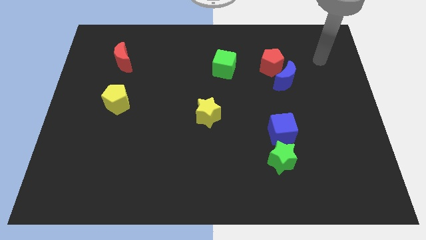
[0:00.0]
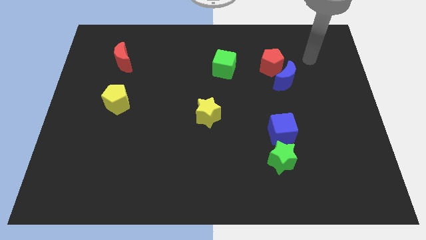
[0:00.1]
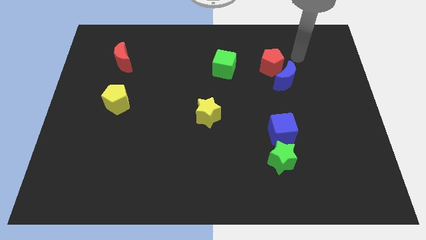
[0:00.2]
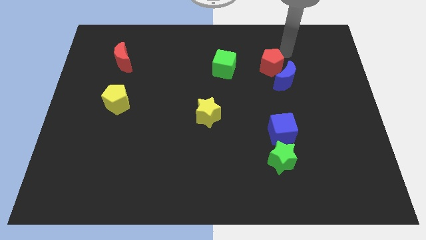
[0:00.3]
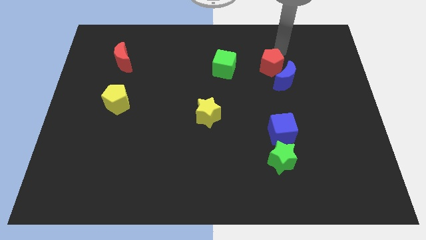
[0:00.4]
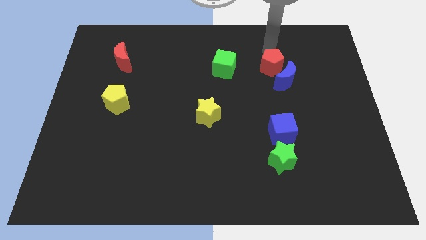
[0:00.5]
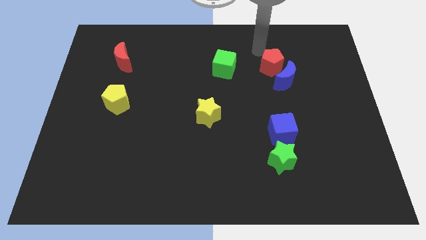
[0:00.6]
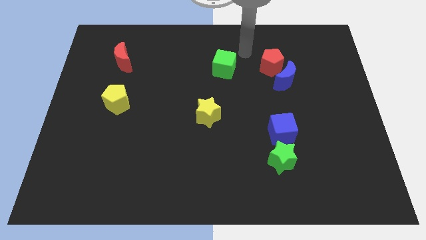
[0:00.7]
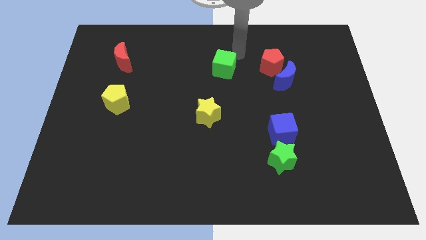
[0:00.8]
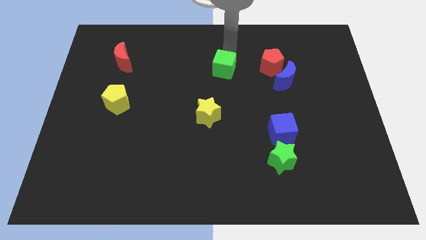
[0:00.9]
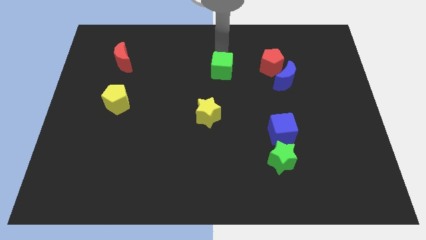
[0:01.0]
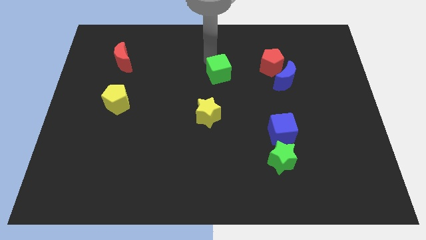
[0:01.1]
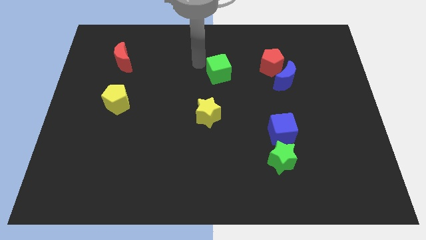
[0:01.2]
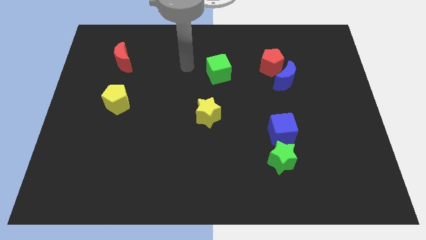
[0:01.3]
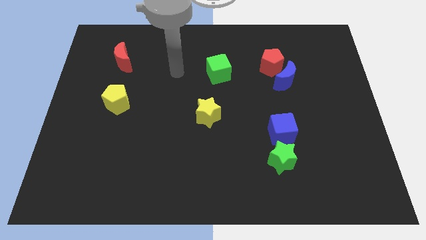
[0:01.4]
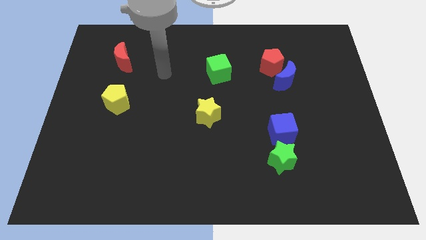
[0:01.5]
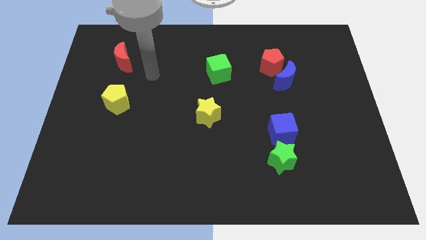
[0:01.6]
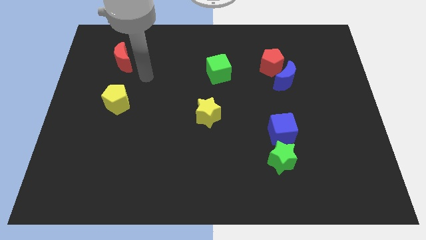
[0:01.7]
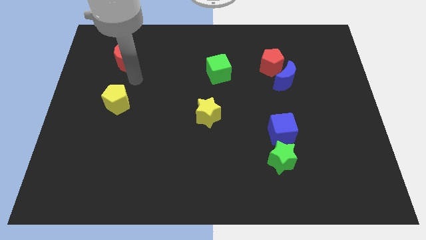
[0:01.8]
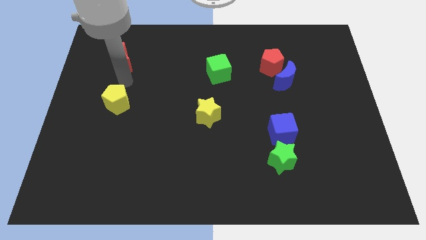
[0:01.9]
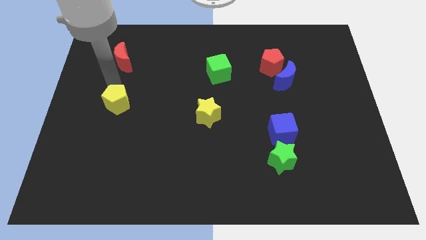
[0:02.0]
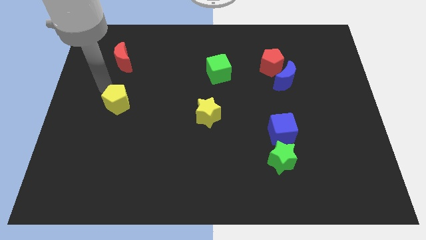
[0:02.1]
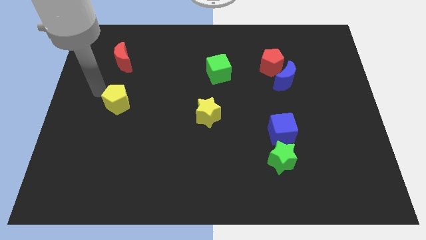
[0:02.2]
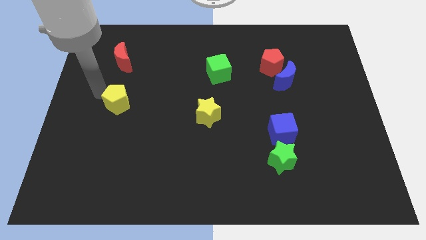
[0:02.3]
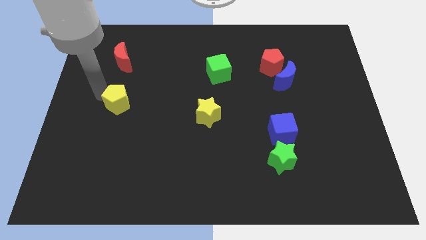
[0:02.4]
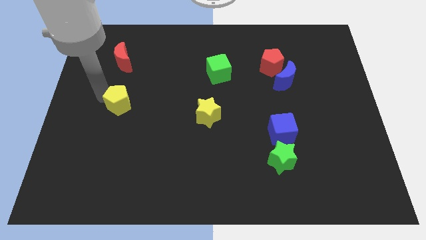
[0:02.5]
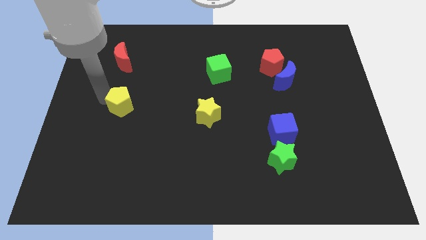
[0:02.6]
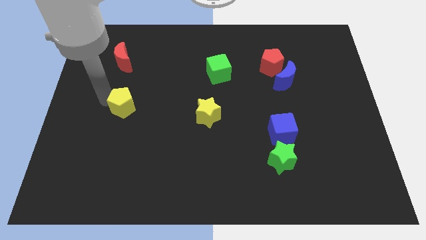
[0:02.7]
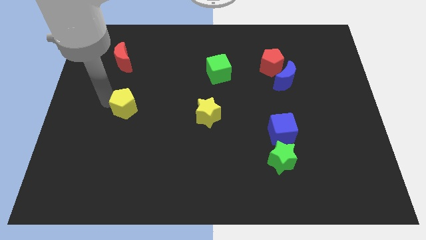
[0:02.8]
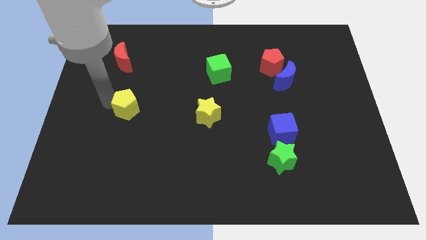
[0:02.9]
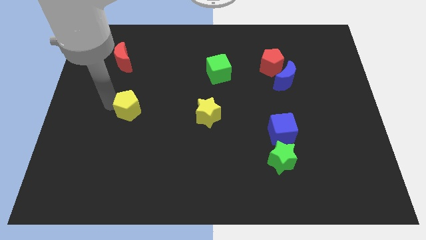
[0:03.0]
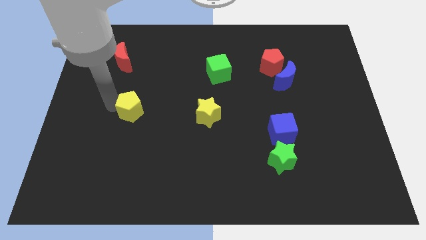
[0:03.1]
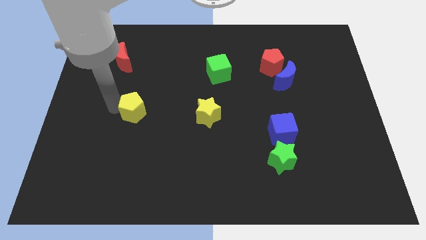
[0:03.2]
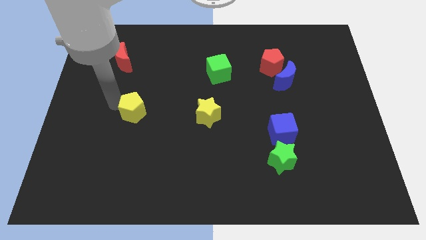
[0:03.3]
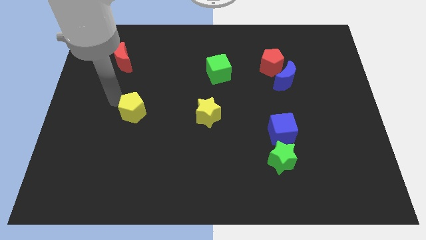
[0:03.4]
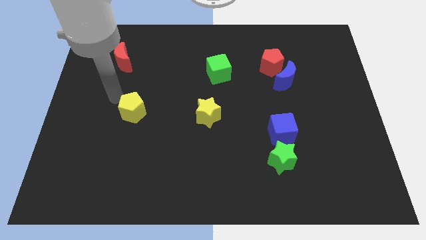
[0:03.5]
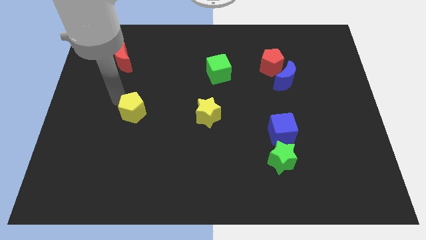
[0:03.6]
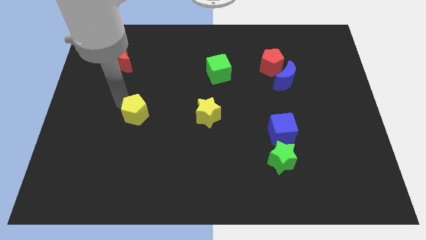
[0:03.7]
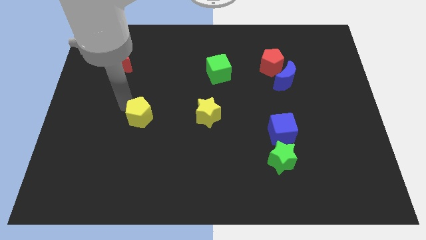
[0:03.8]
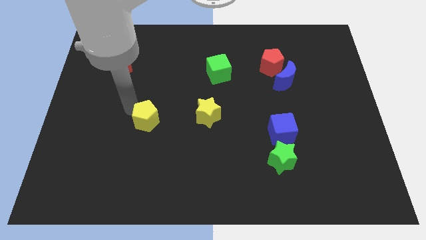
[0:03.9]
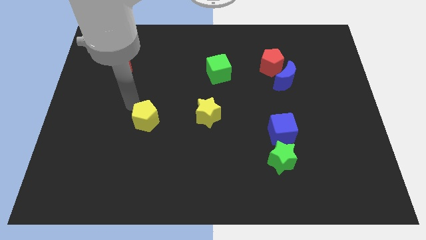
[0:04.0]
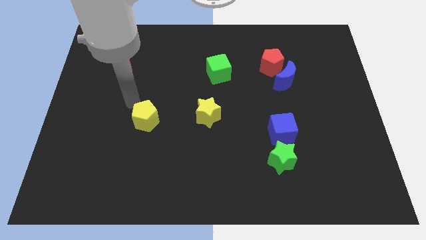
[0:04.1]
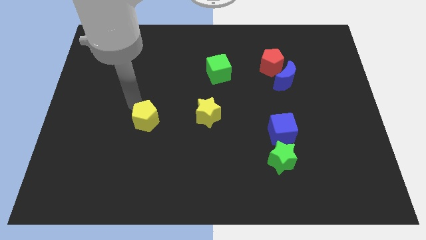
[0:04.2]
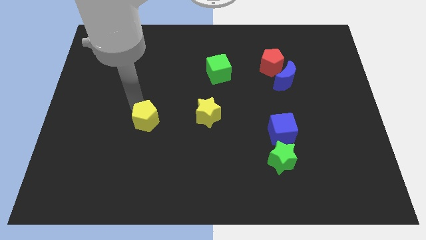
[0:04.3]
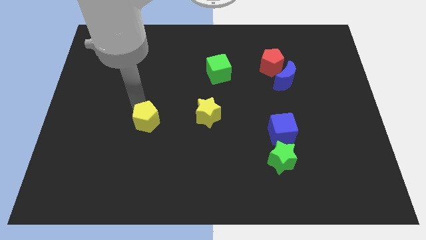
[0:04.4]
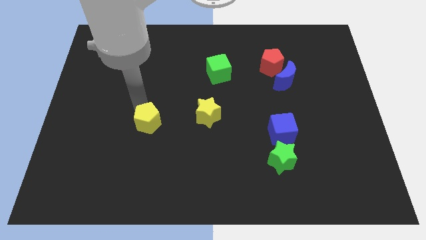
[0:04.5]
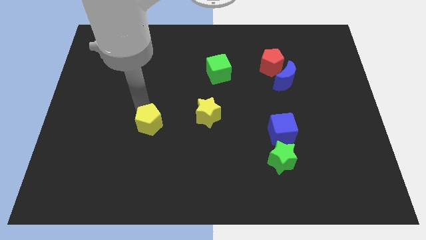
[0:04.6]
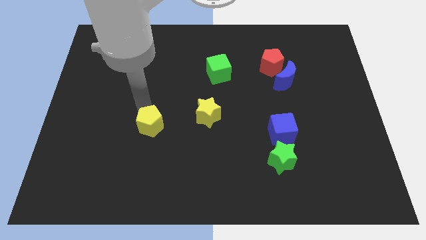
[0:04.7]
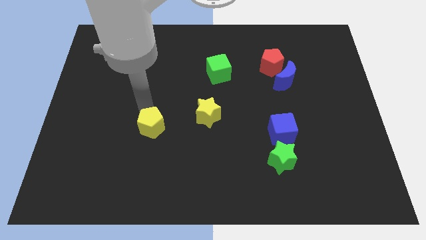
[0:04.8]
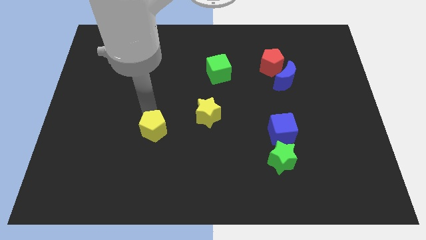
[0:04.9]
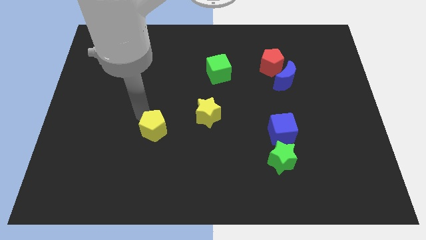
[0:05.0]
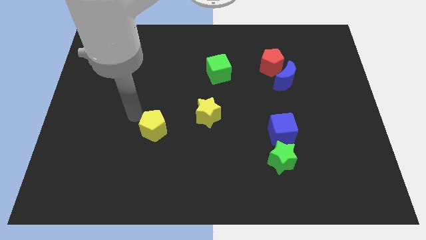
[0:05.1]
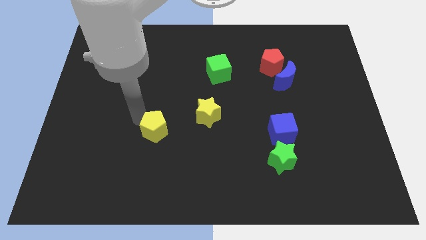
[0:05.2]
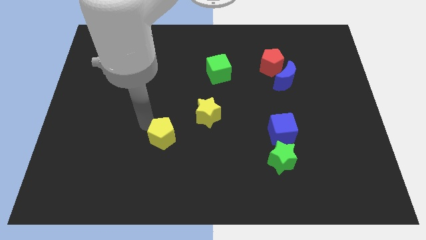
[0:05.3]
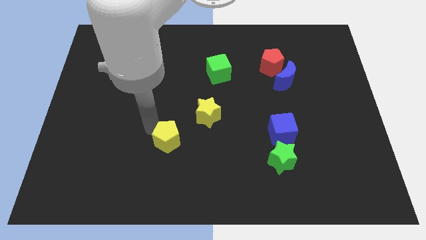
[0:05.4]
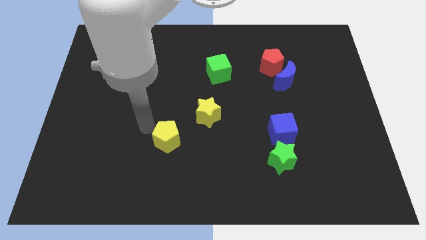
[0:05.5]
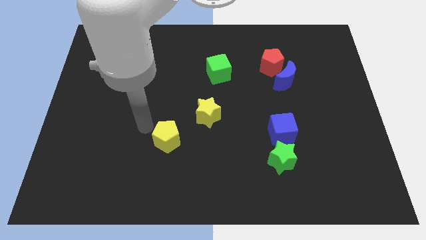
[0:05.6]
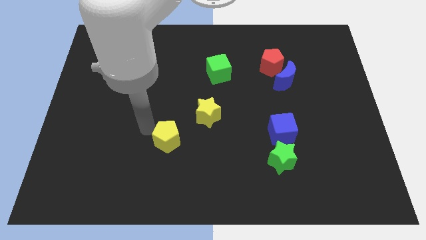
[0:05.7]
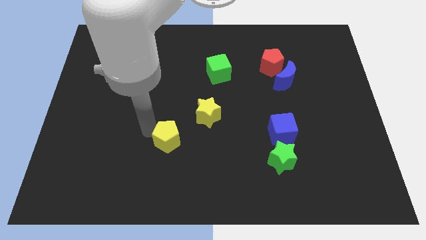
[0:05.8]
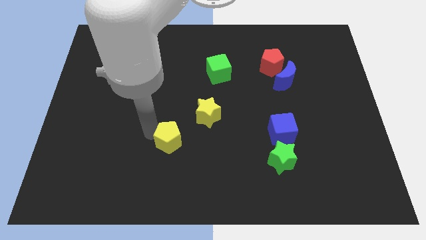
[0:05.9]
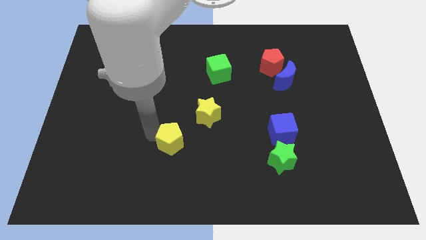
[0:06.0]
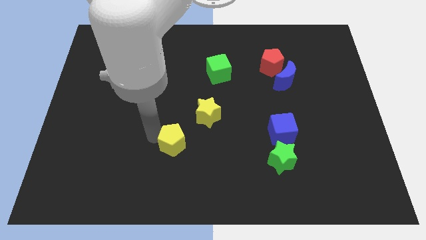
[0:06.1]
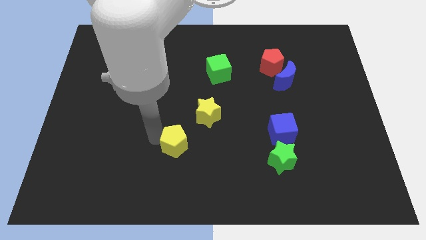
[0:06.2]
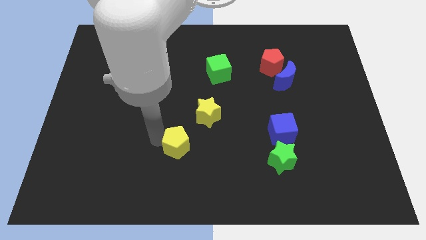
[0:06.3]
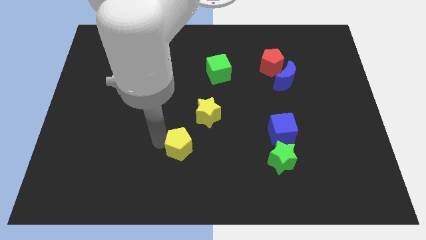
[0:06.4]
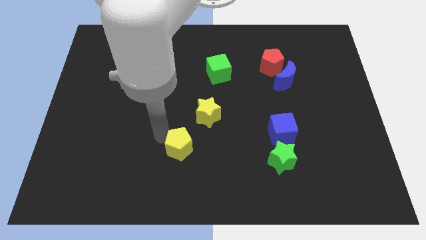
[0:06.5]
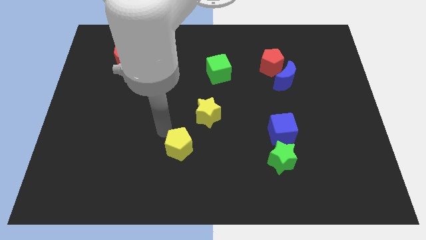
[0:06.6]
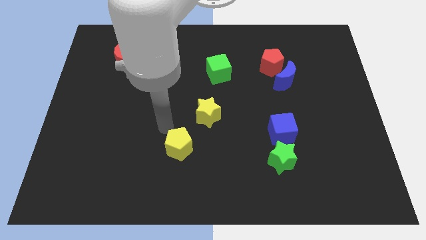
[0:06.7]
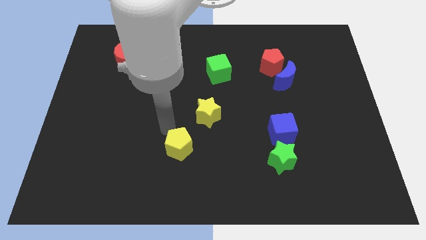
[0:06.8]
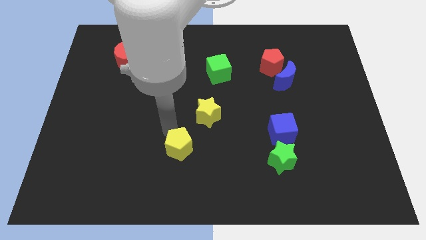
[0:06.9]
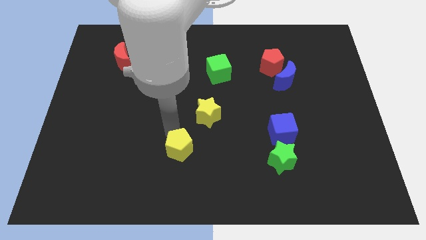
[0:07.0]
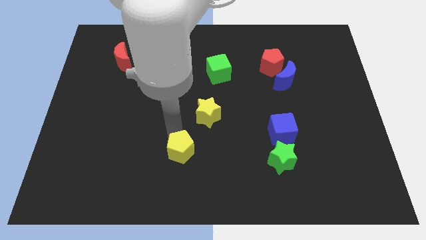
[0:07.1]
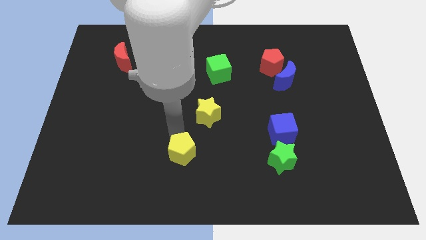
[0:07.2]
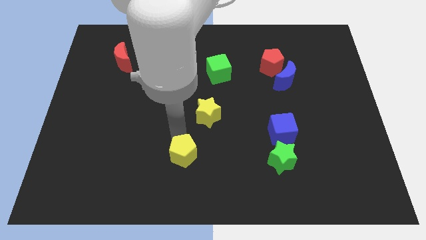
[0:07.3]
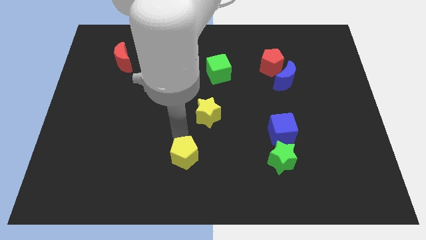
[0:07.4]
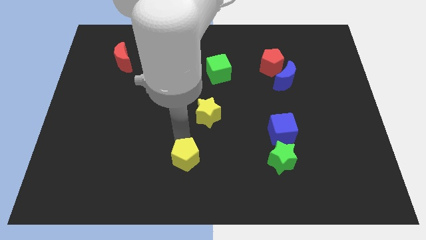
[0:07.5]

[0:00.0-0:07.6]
put the yellow pentagon to the bottom

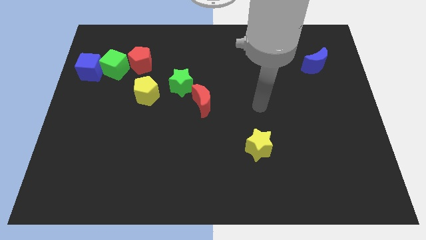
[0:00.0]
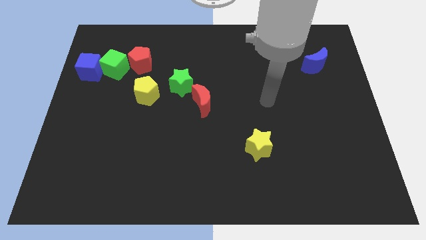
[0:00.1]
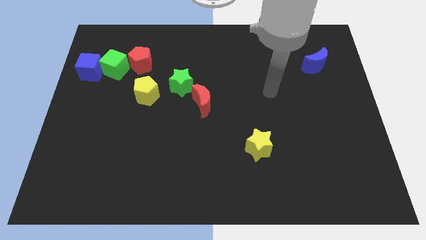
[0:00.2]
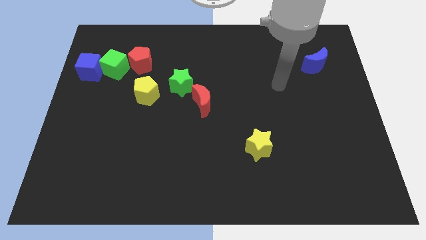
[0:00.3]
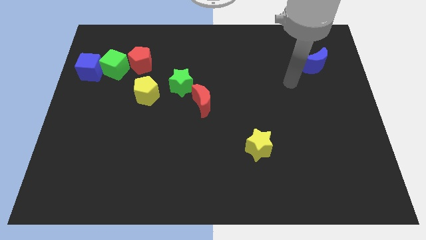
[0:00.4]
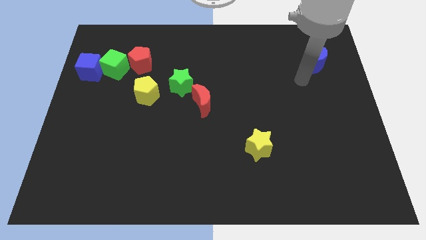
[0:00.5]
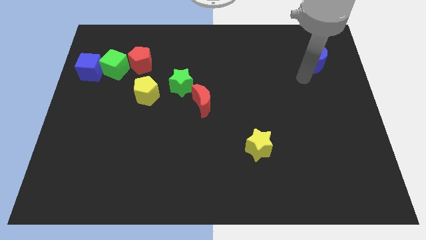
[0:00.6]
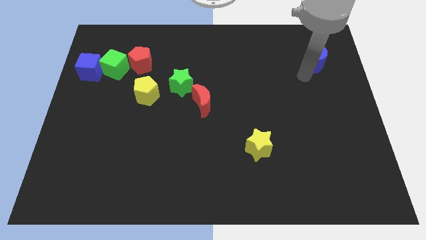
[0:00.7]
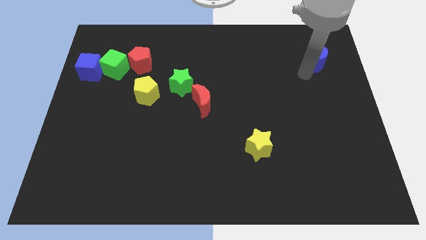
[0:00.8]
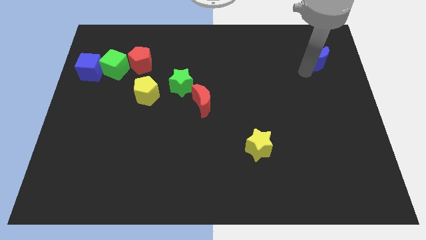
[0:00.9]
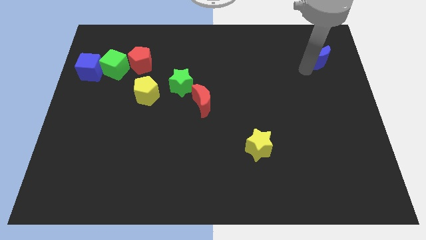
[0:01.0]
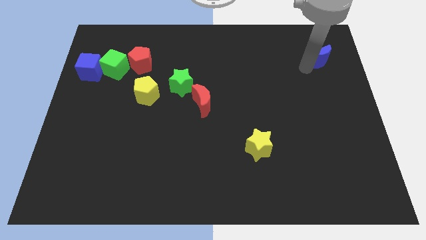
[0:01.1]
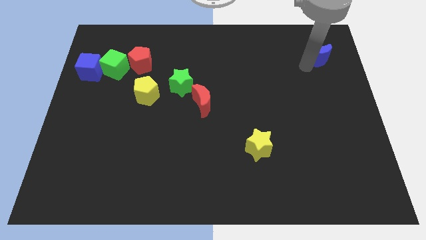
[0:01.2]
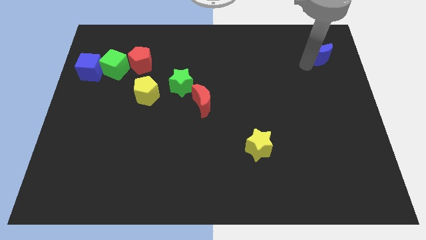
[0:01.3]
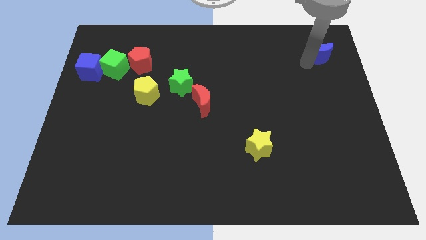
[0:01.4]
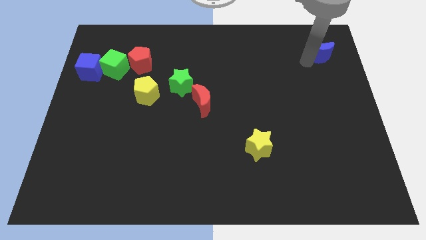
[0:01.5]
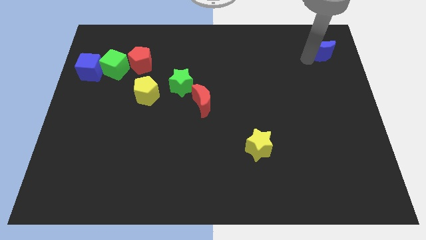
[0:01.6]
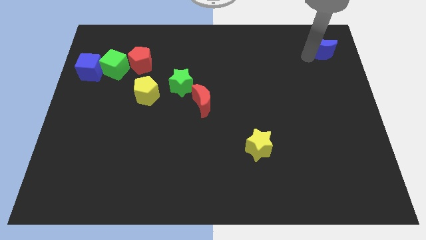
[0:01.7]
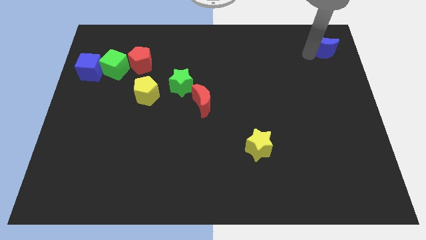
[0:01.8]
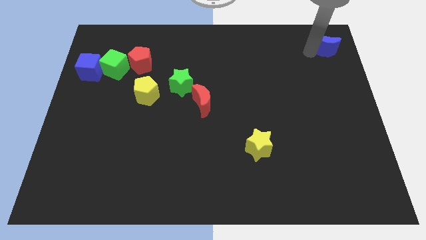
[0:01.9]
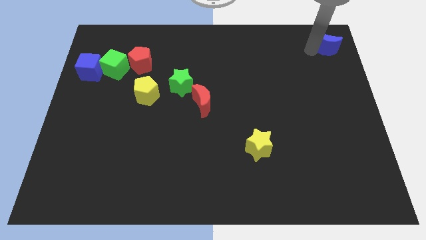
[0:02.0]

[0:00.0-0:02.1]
move the blue moon to the top right
